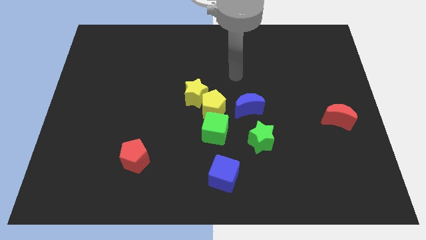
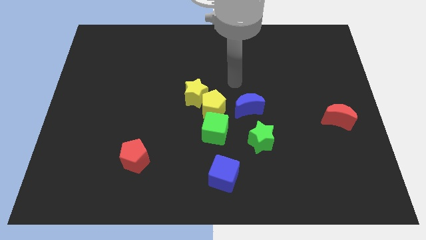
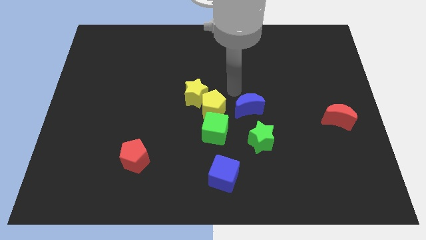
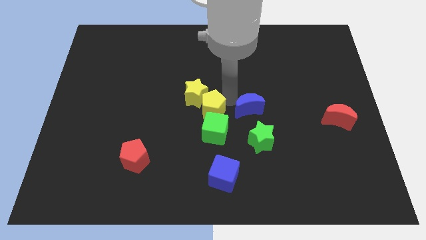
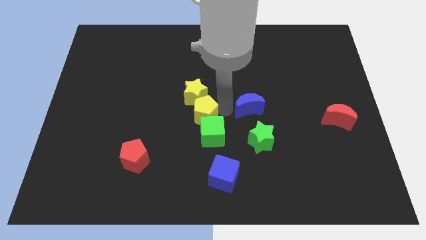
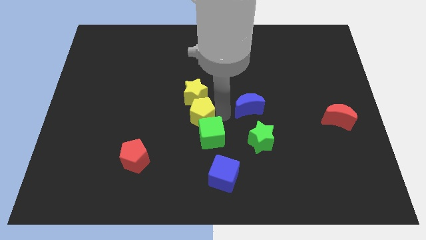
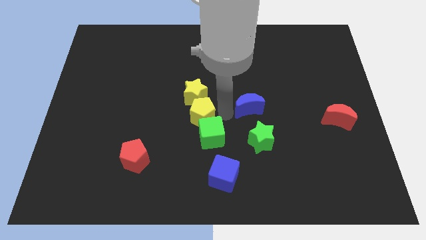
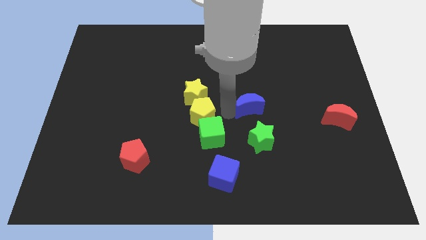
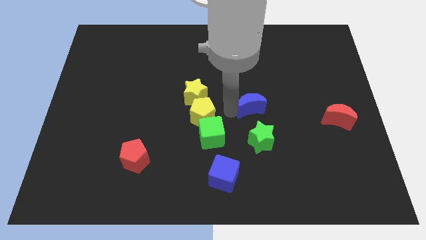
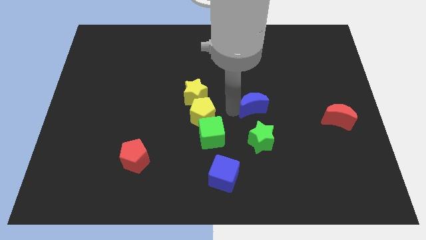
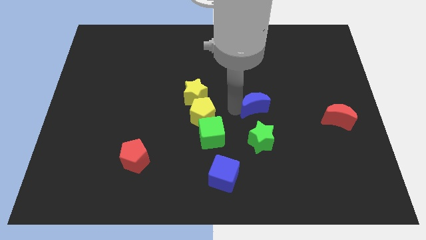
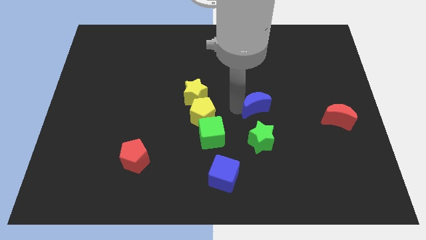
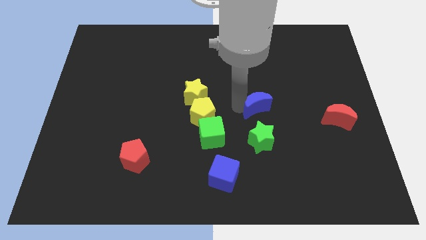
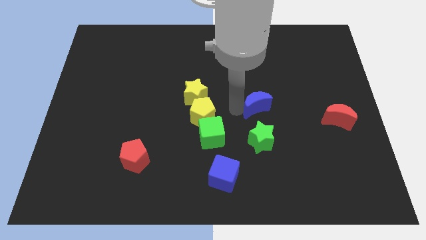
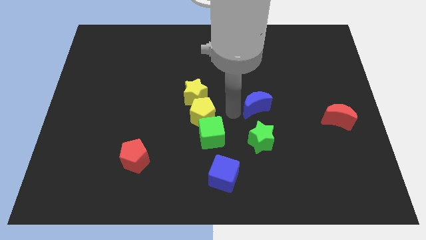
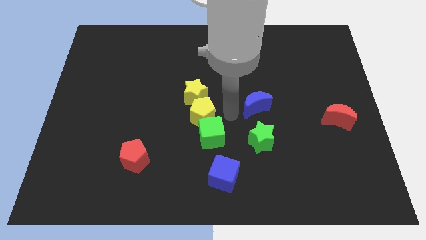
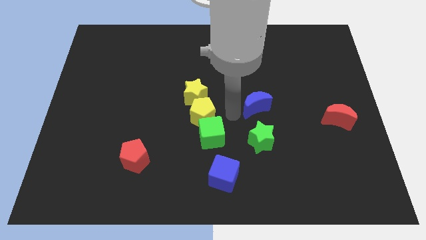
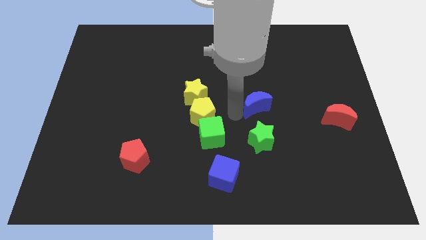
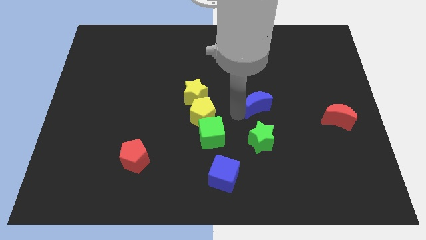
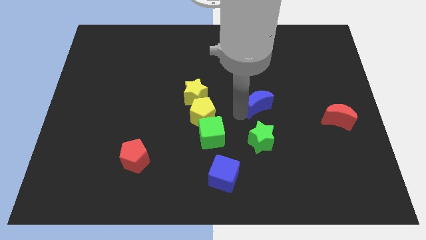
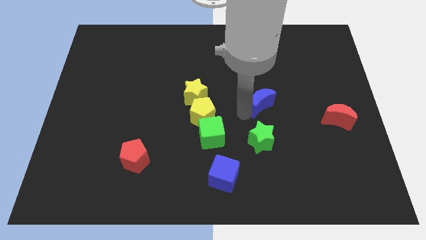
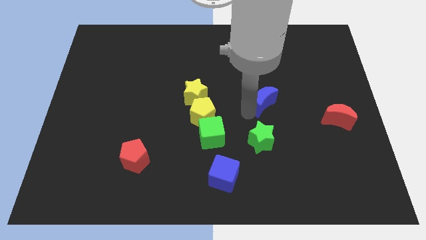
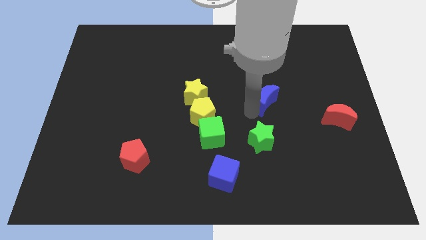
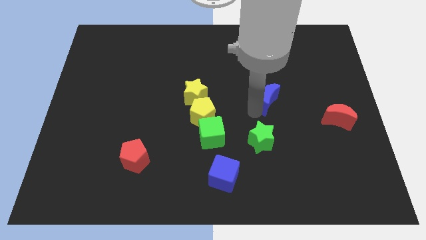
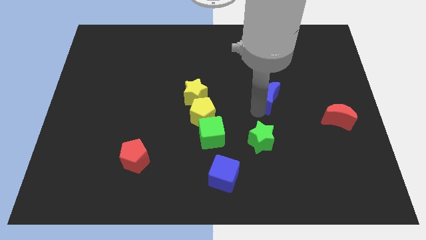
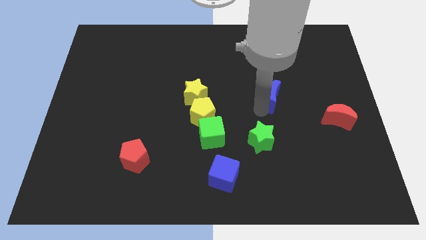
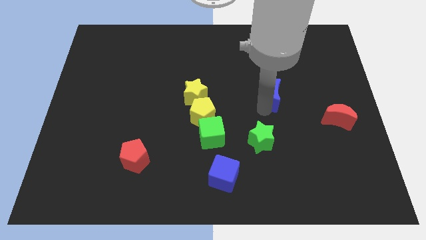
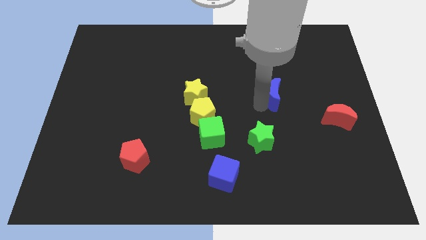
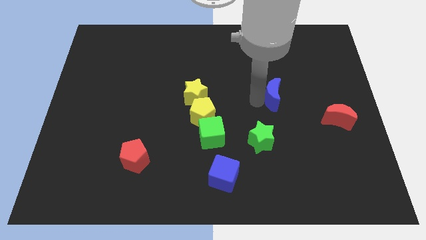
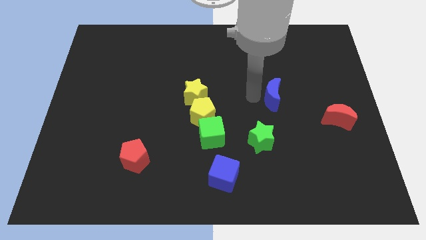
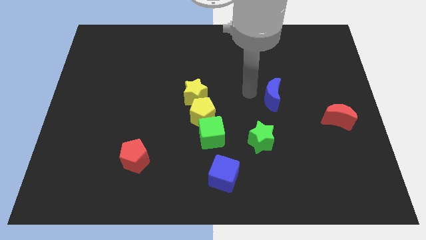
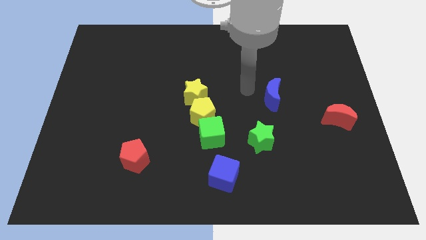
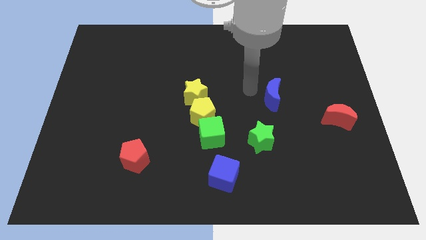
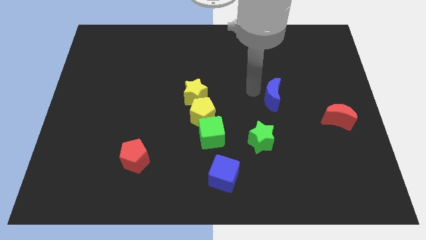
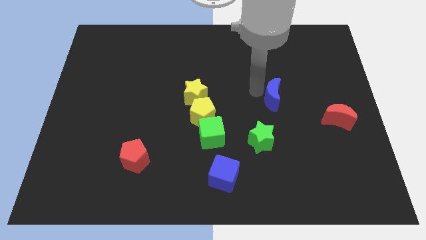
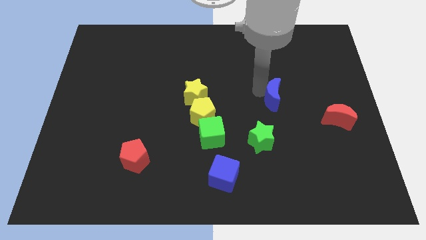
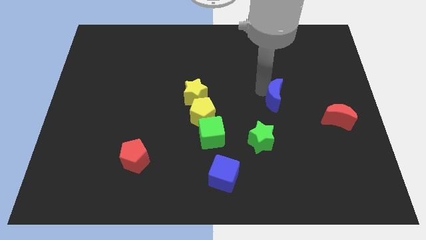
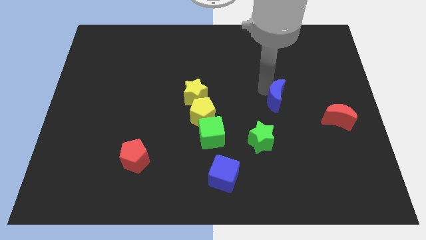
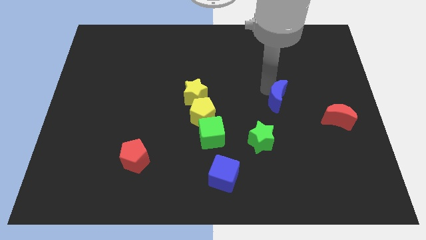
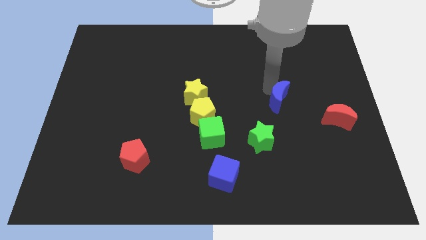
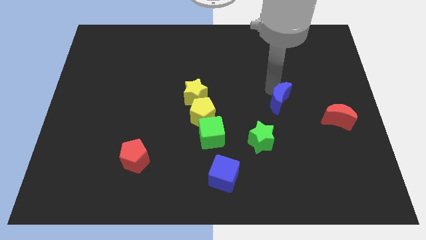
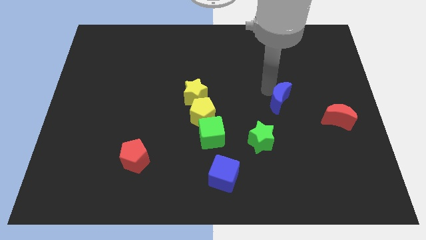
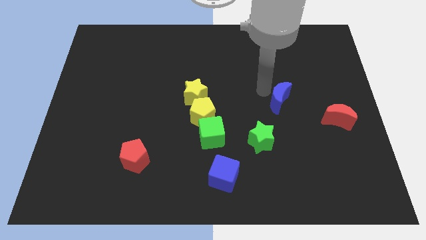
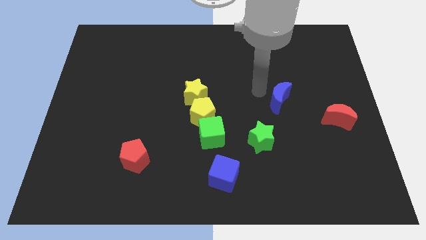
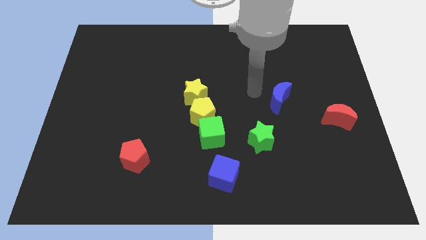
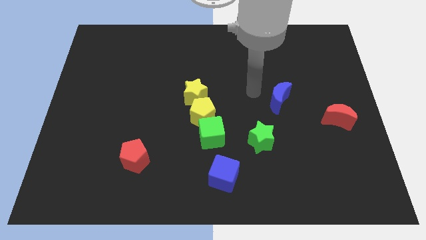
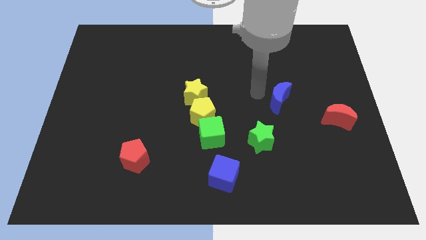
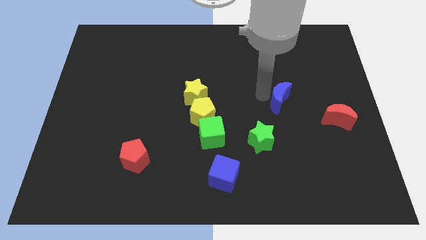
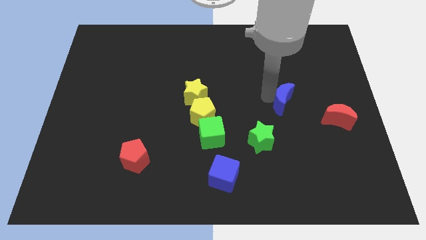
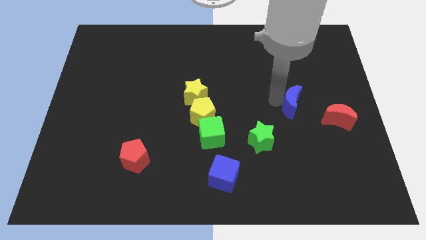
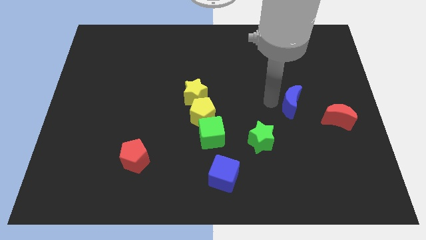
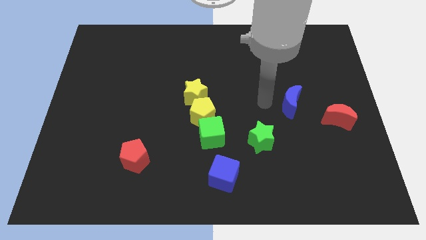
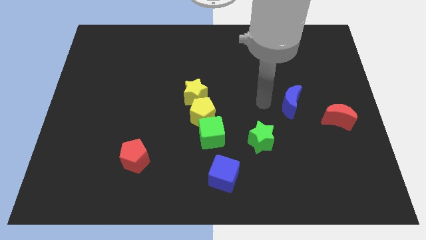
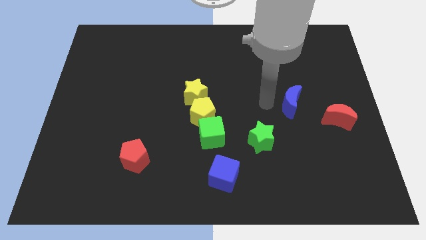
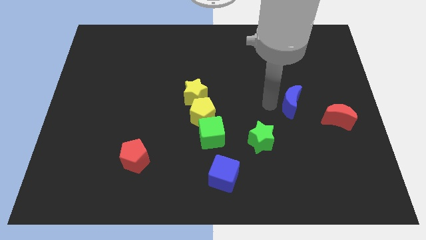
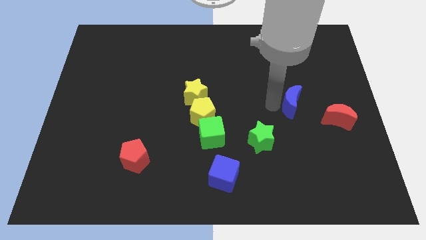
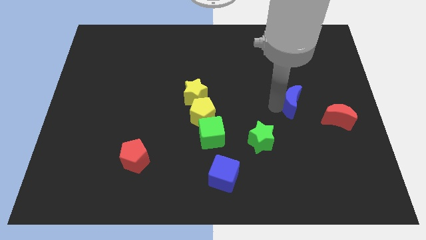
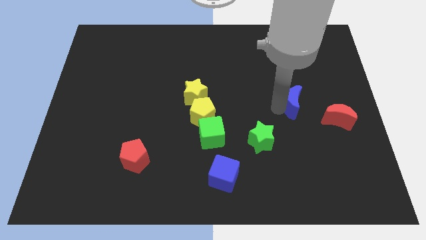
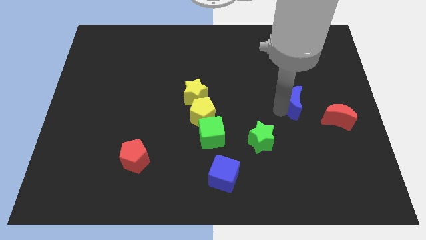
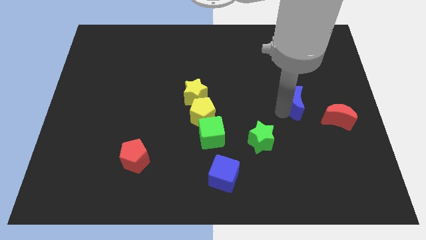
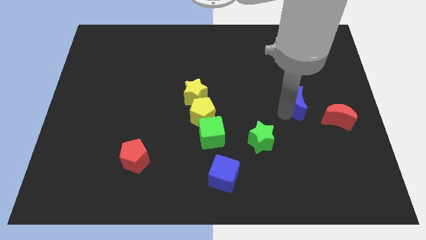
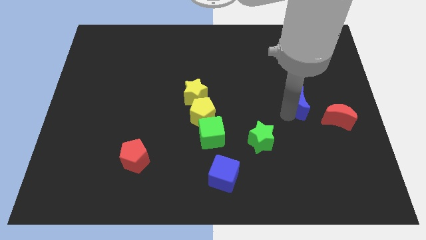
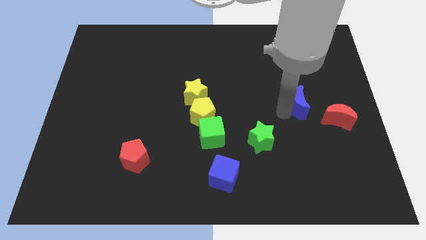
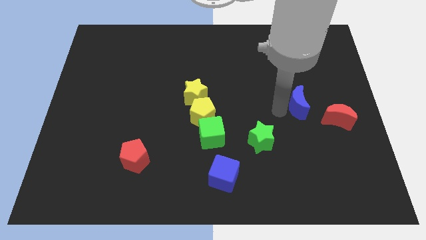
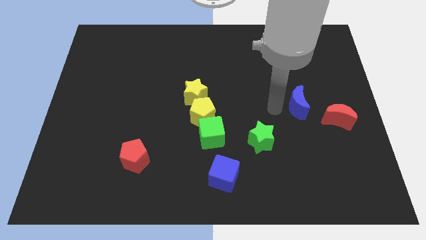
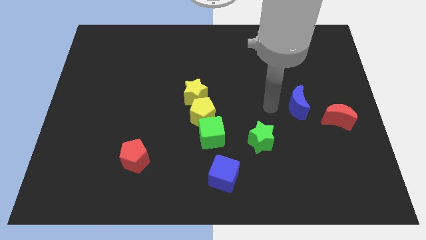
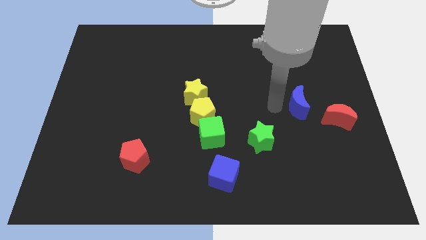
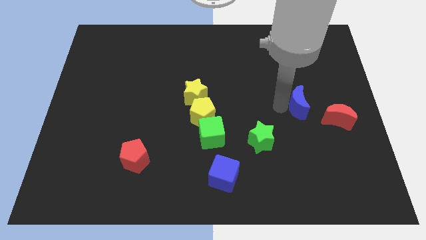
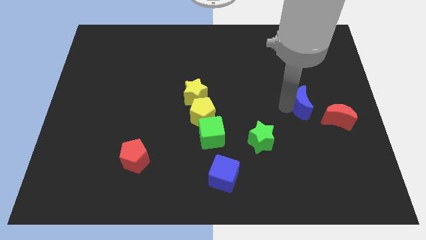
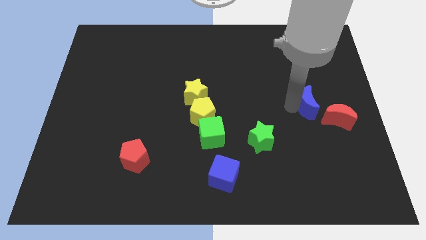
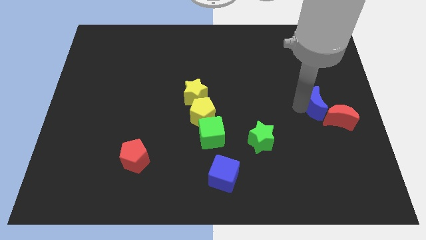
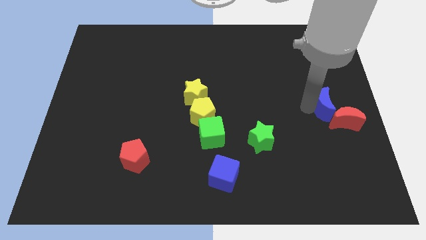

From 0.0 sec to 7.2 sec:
move the blue moon to the right side
